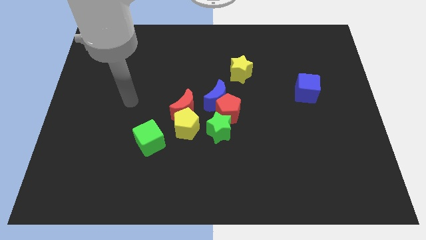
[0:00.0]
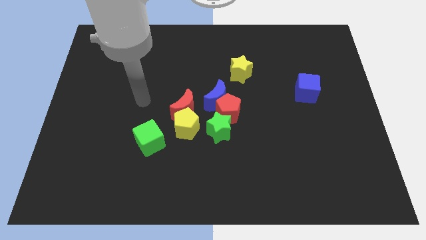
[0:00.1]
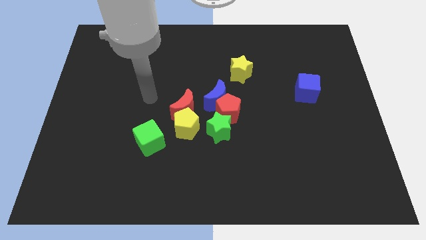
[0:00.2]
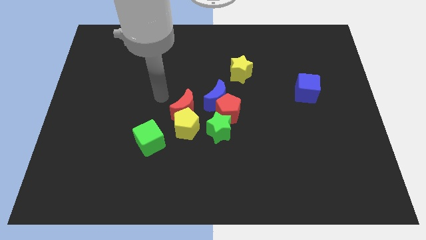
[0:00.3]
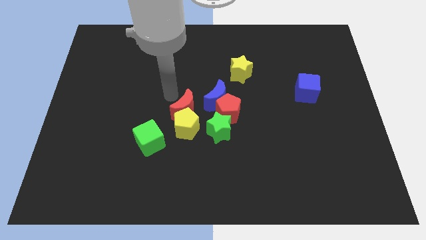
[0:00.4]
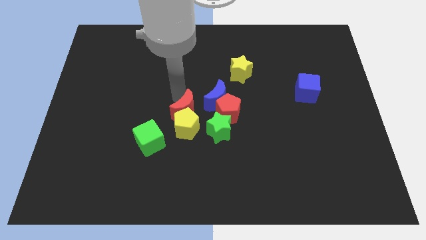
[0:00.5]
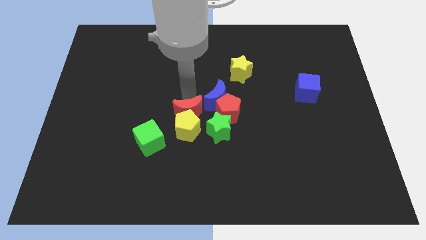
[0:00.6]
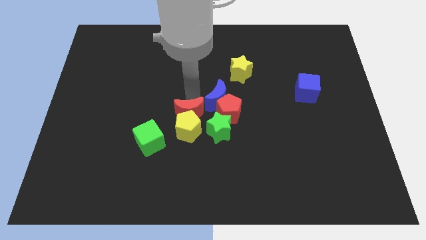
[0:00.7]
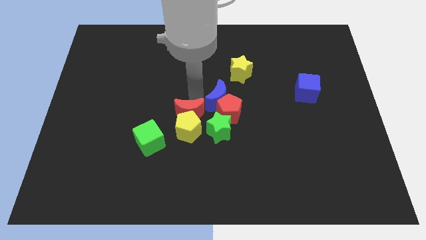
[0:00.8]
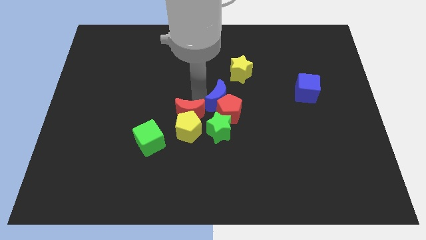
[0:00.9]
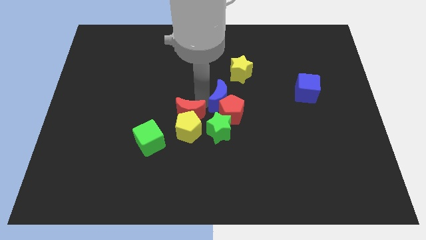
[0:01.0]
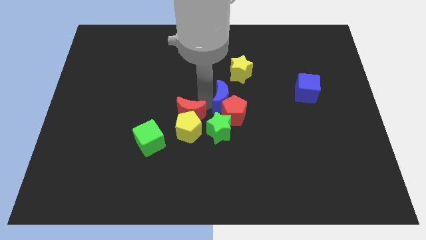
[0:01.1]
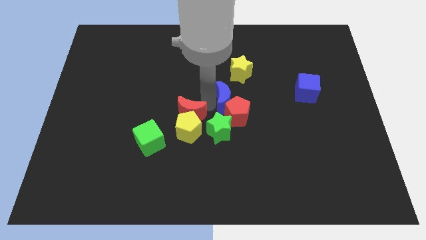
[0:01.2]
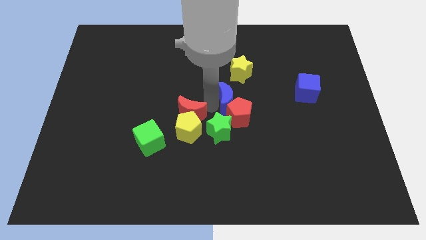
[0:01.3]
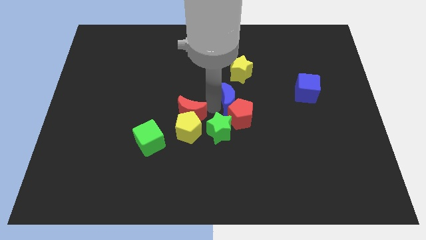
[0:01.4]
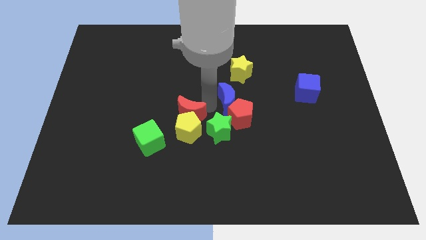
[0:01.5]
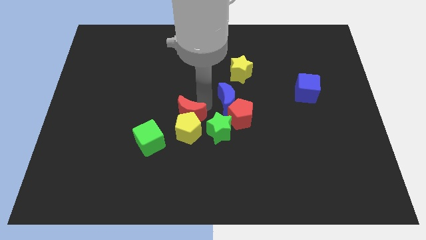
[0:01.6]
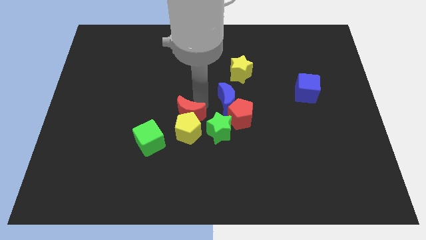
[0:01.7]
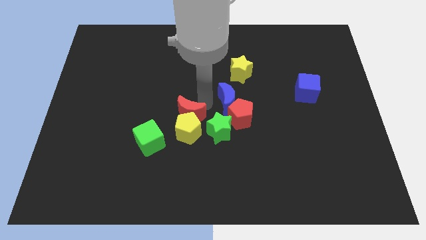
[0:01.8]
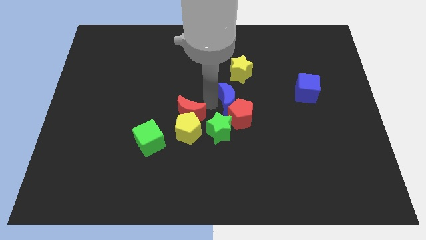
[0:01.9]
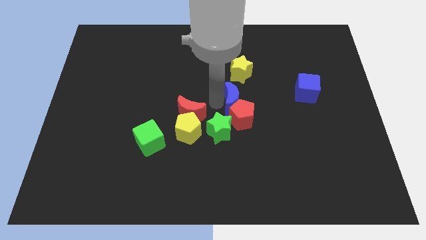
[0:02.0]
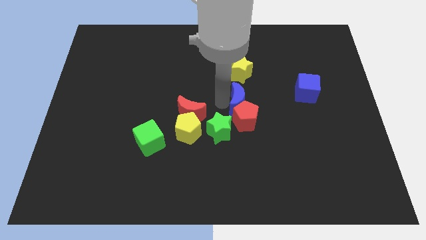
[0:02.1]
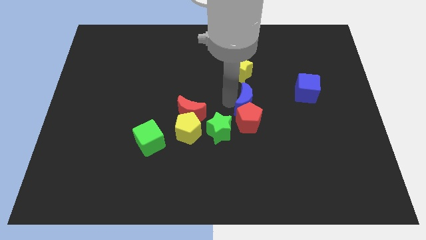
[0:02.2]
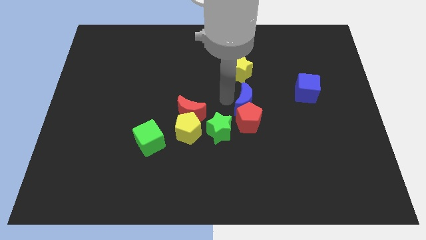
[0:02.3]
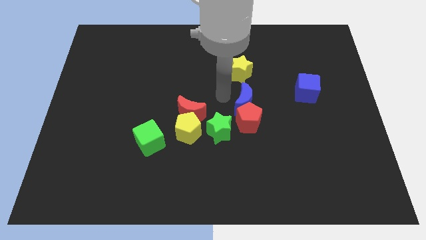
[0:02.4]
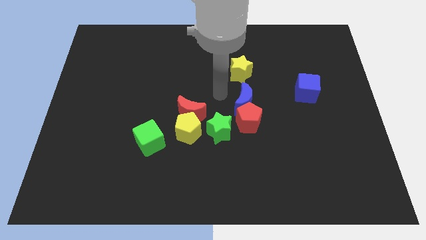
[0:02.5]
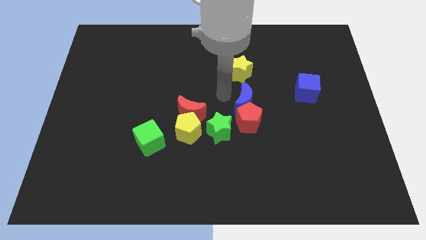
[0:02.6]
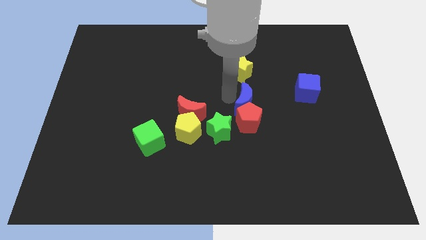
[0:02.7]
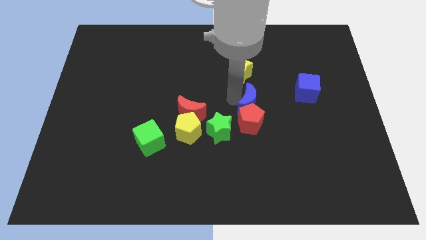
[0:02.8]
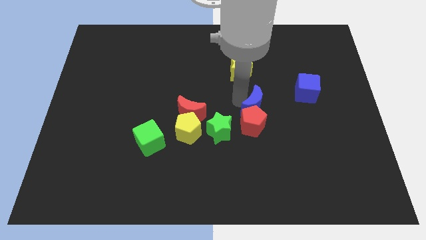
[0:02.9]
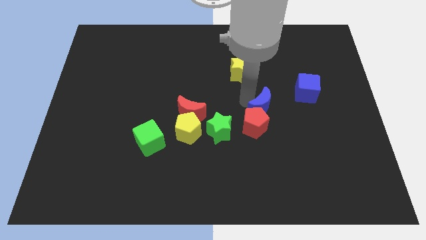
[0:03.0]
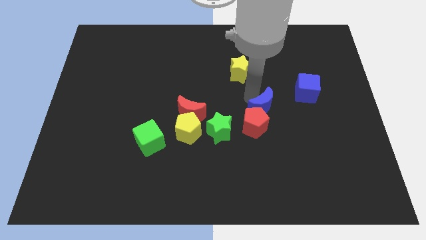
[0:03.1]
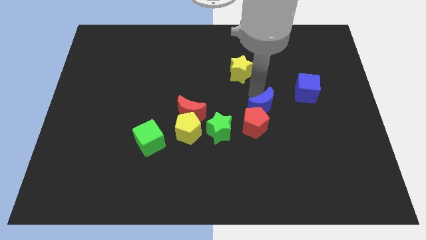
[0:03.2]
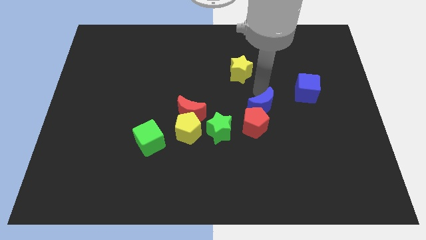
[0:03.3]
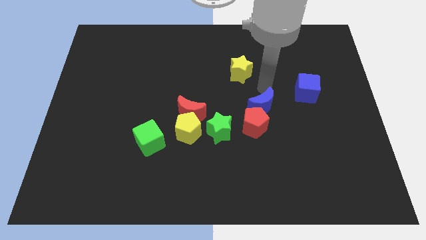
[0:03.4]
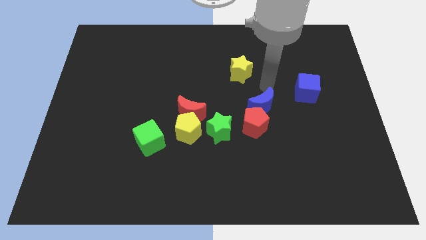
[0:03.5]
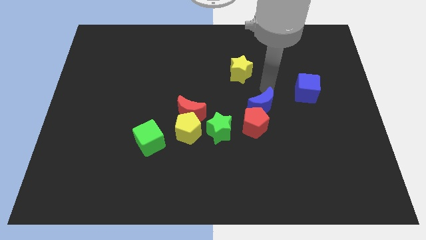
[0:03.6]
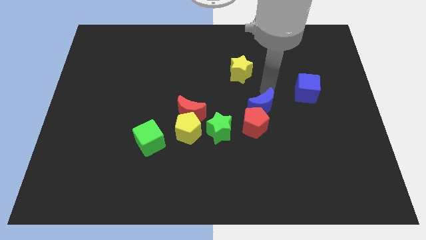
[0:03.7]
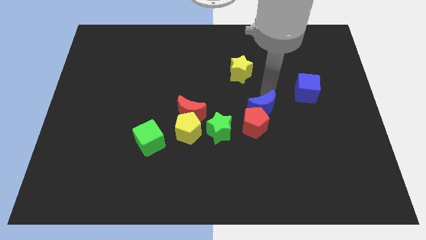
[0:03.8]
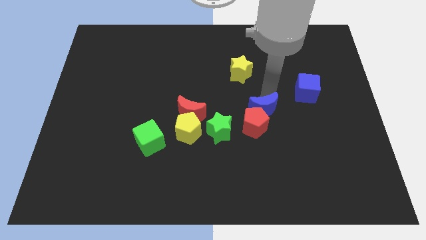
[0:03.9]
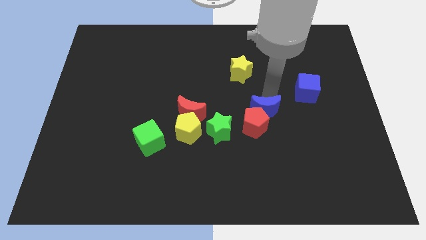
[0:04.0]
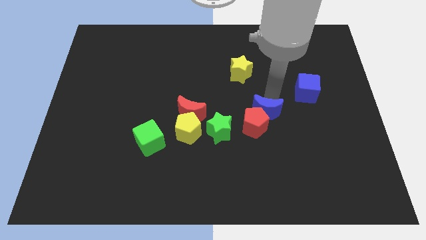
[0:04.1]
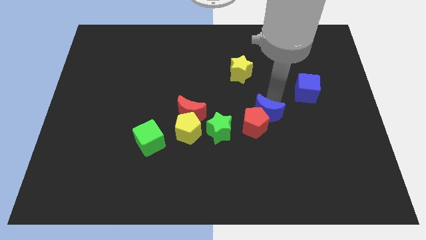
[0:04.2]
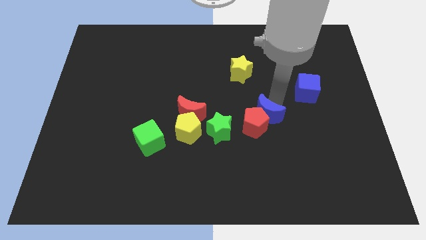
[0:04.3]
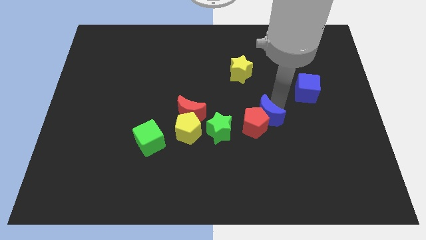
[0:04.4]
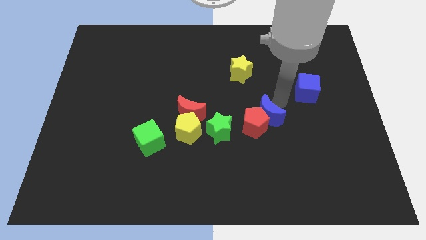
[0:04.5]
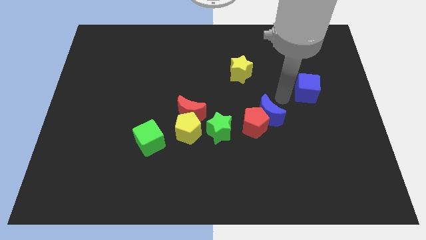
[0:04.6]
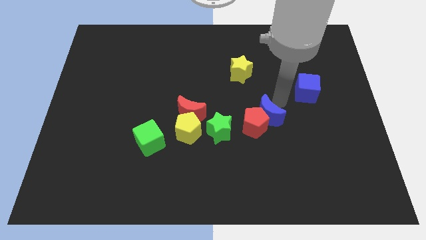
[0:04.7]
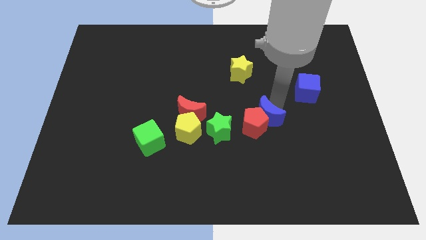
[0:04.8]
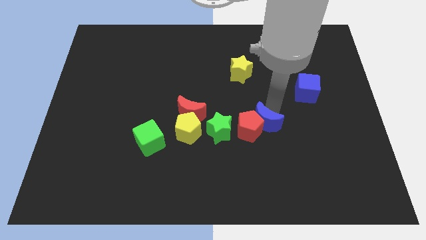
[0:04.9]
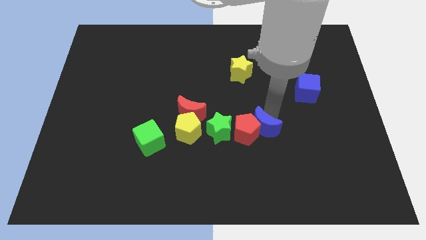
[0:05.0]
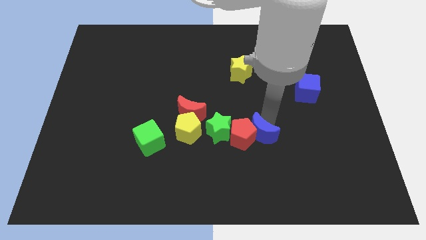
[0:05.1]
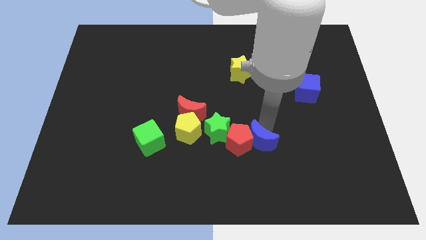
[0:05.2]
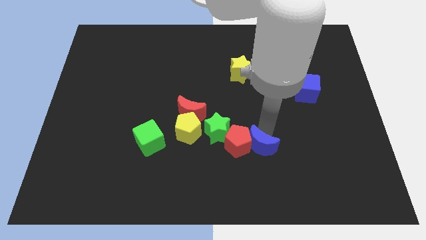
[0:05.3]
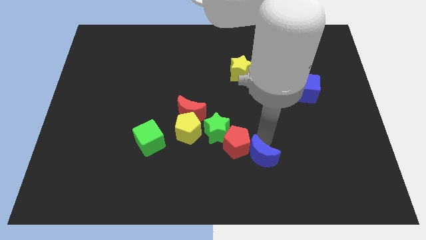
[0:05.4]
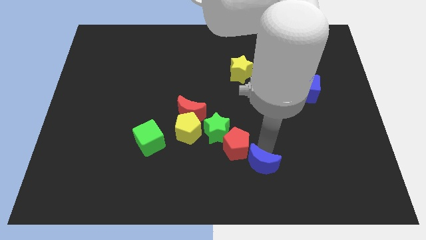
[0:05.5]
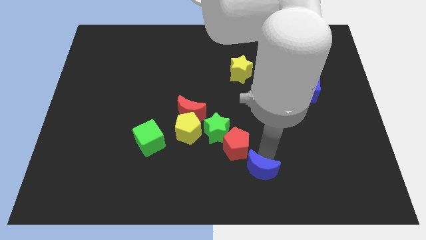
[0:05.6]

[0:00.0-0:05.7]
slide the blue moon to the bottom
